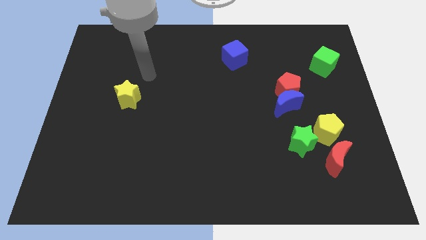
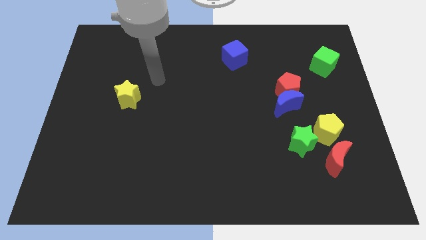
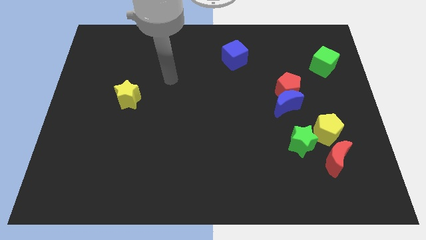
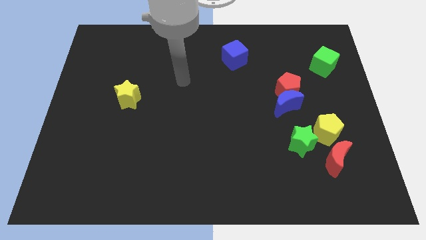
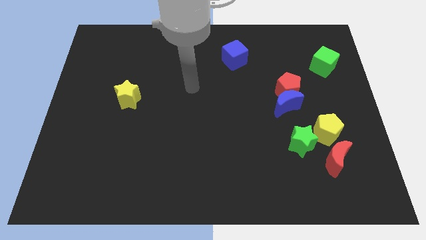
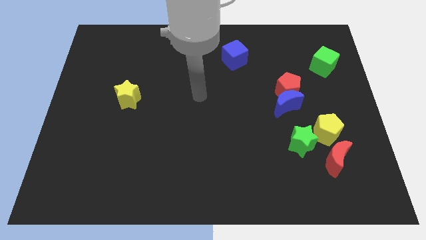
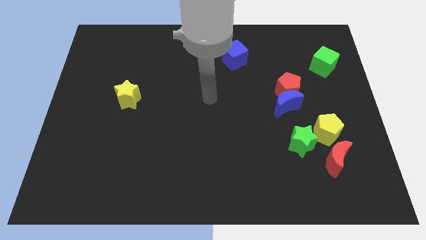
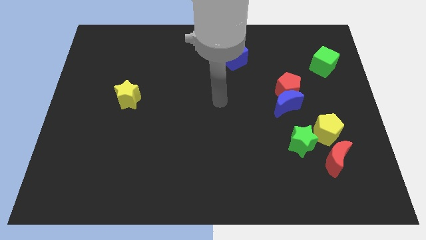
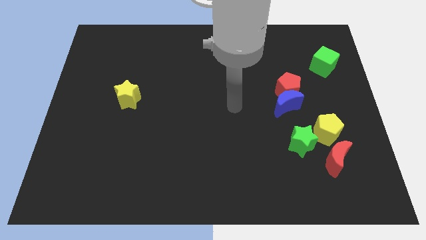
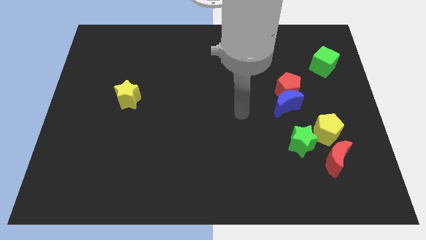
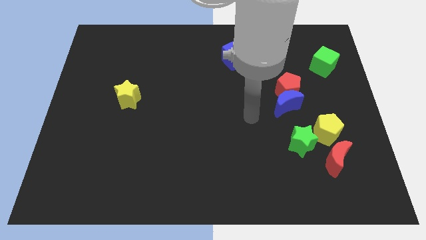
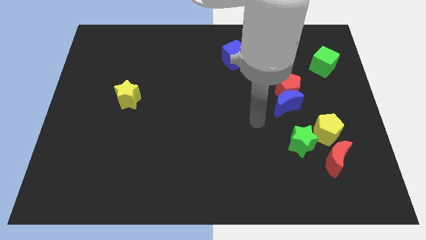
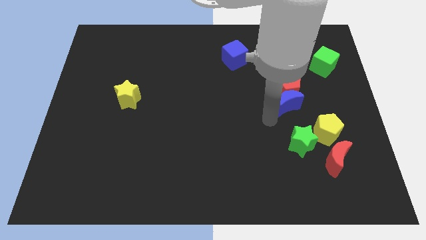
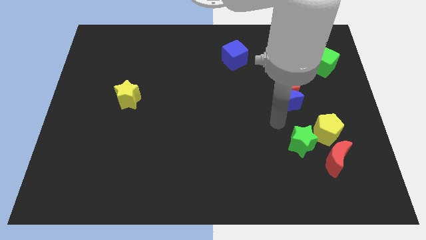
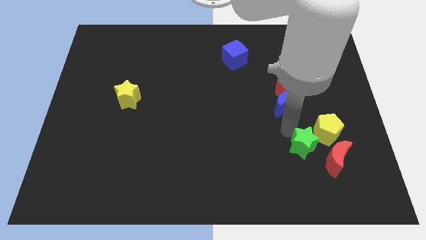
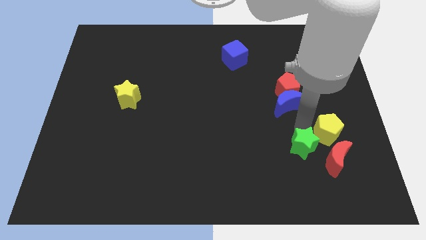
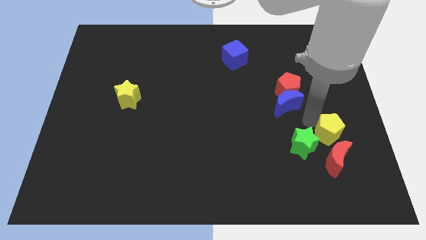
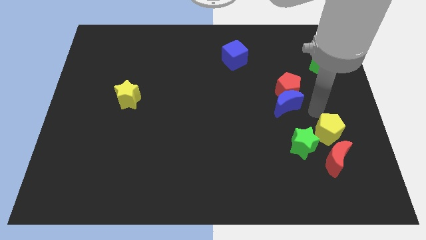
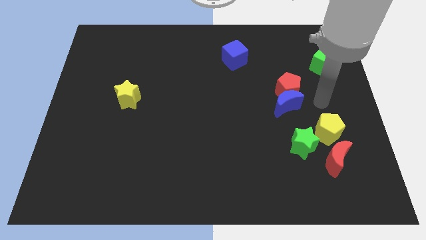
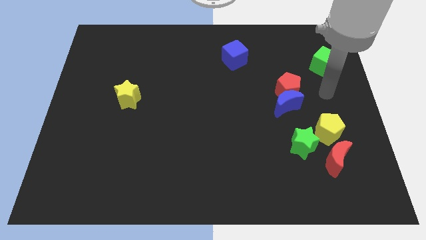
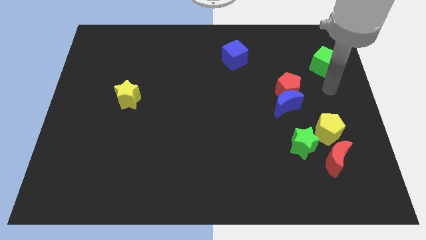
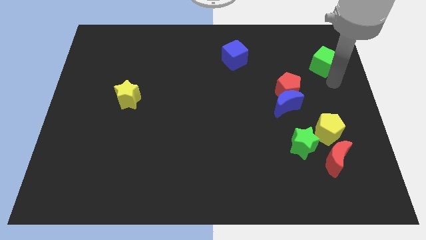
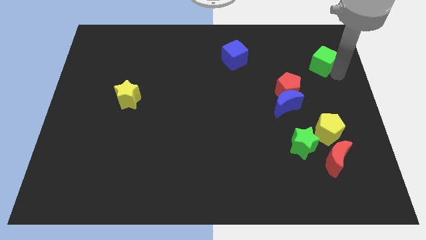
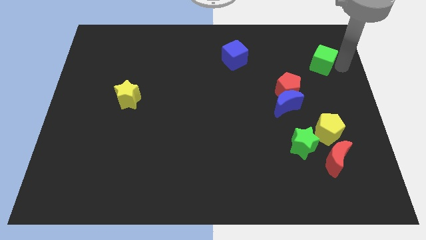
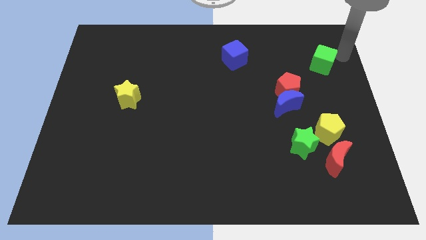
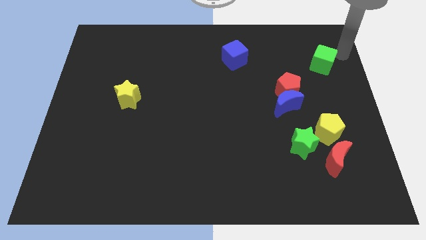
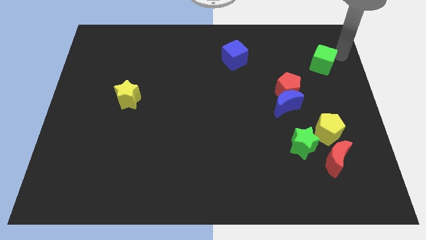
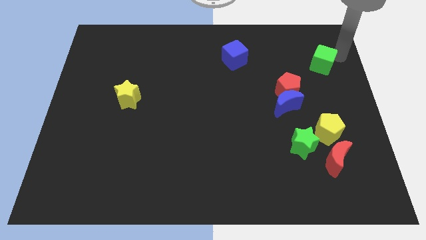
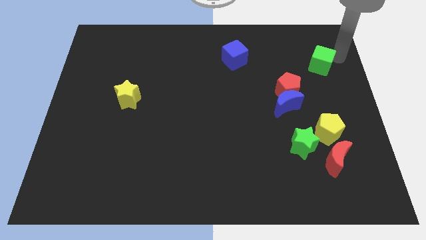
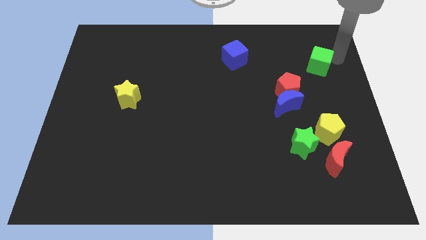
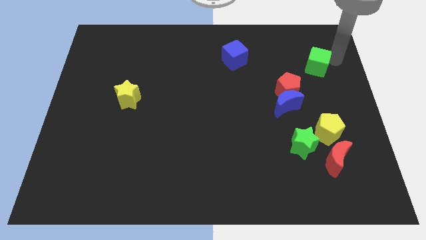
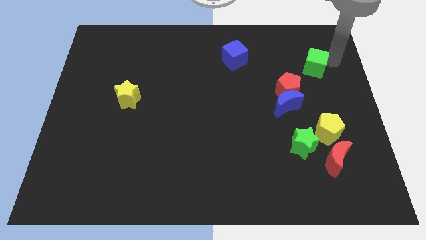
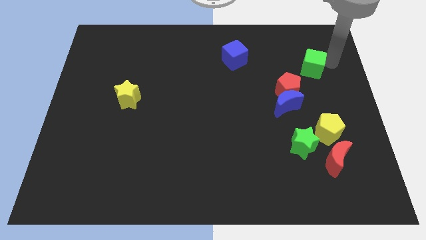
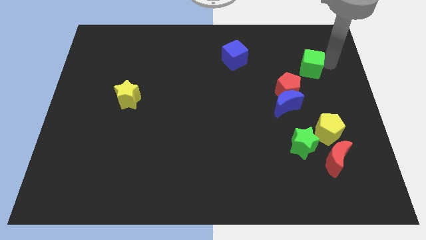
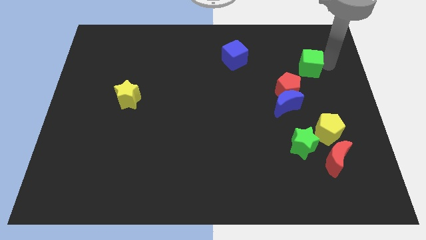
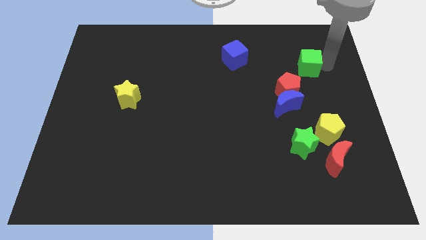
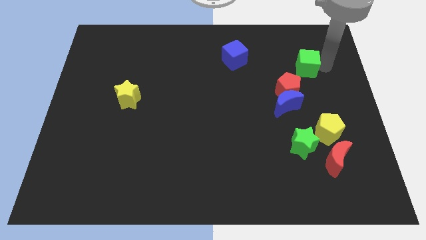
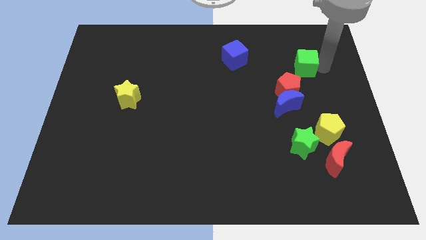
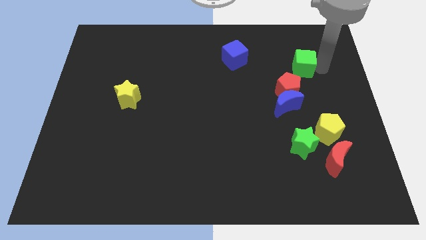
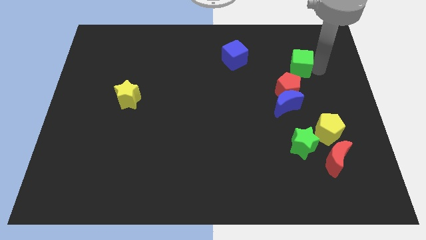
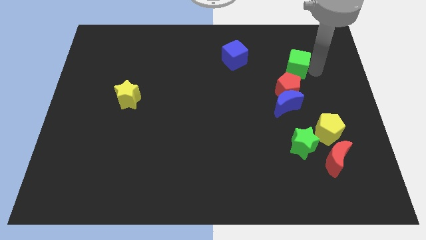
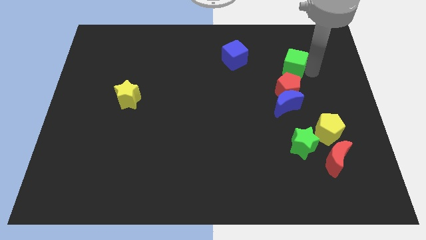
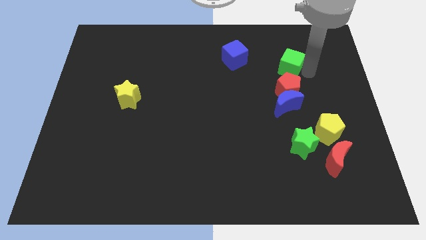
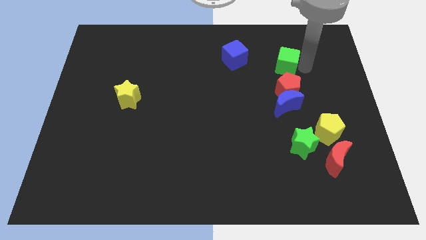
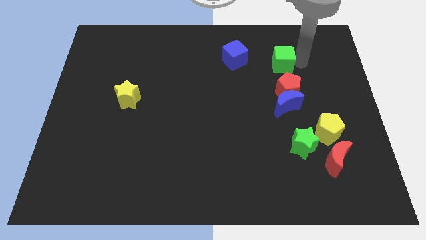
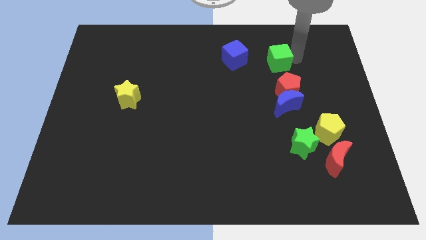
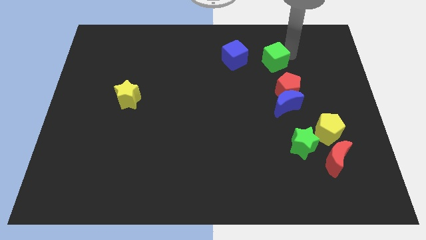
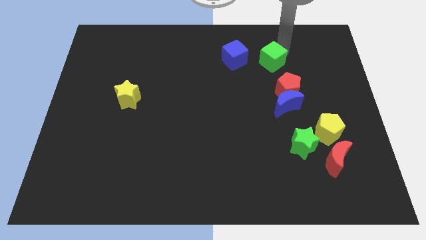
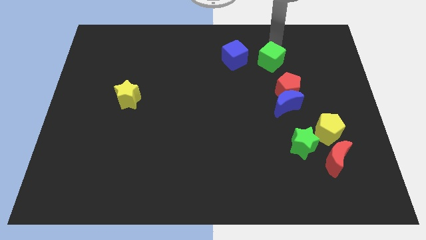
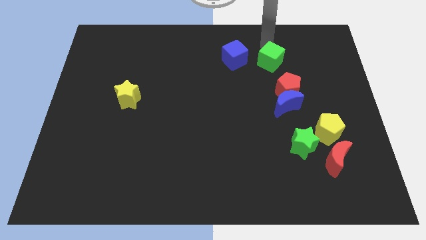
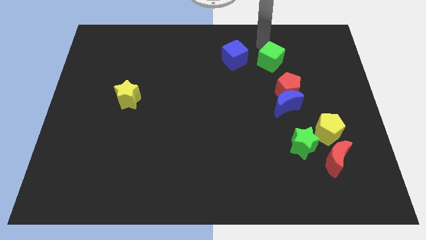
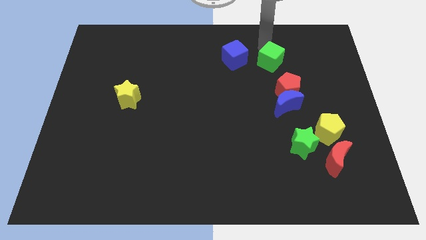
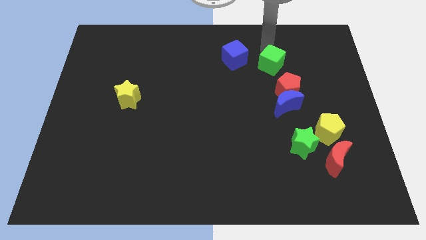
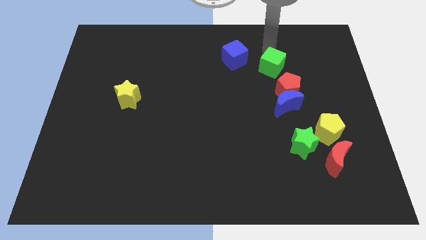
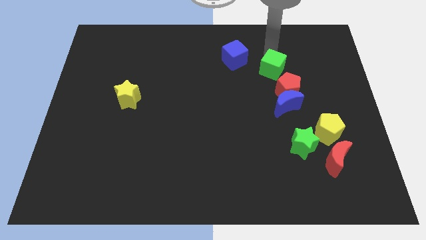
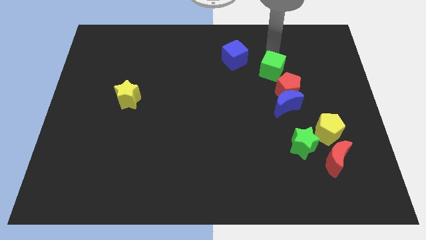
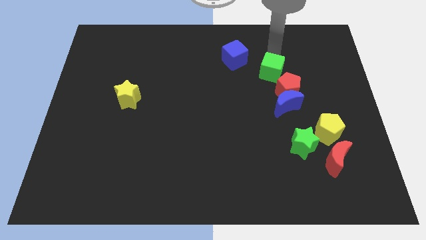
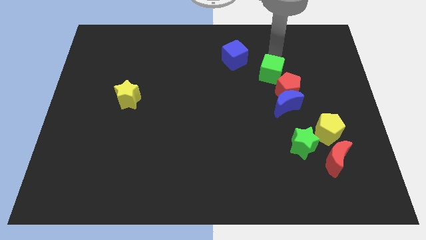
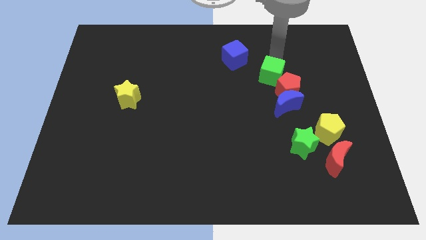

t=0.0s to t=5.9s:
push the green cube to the red pentagon

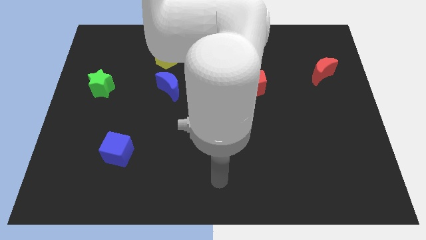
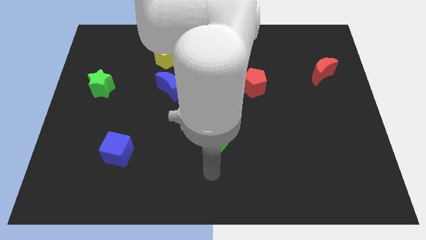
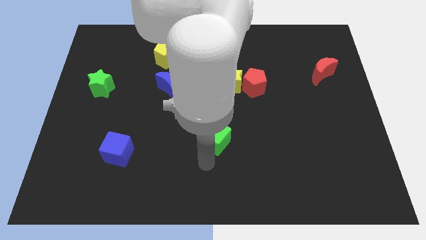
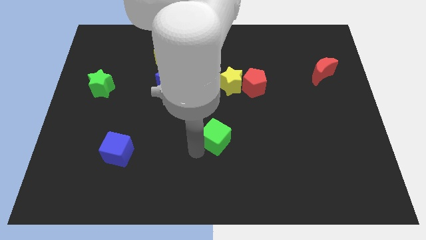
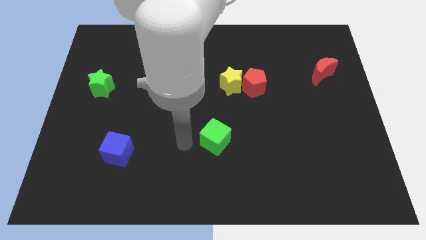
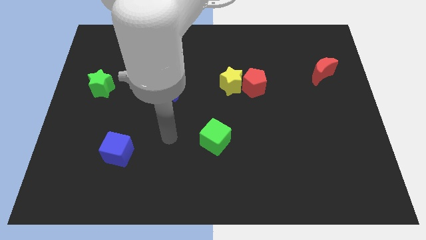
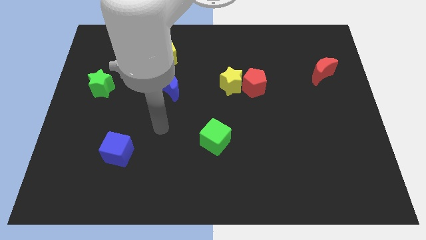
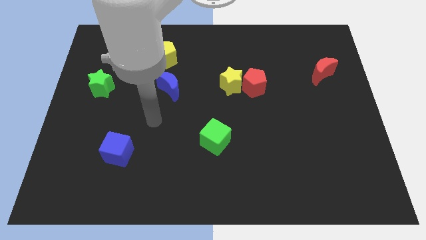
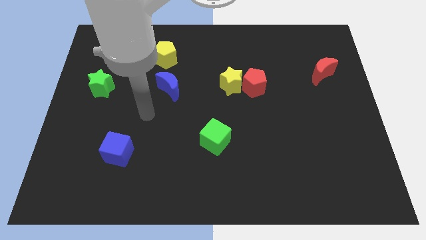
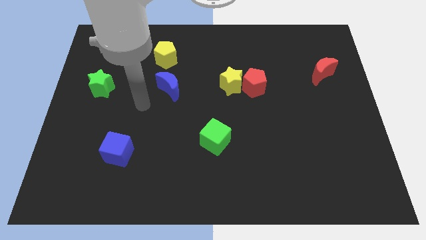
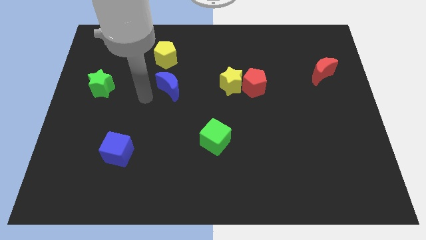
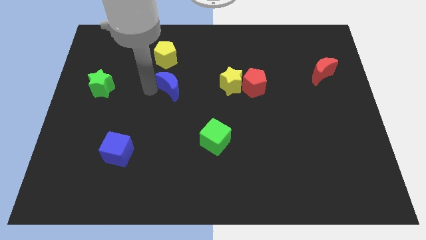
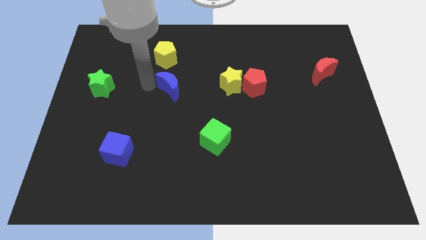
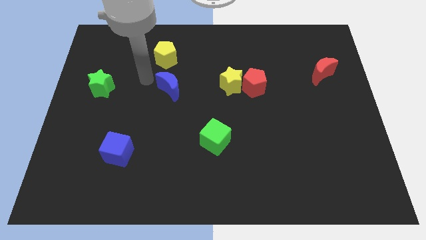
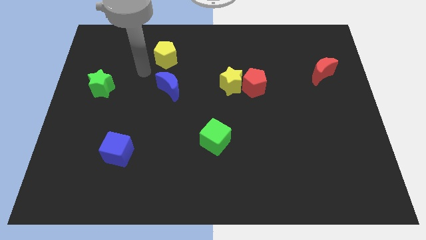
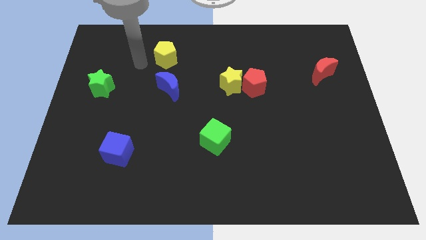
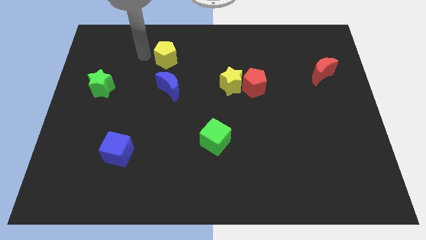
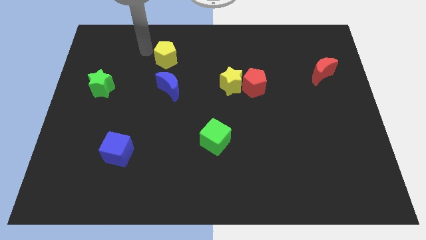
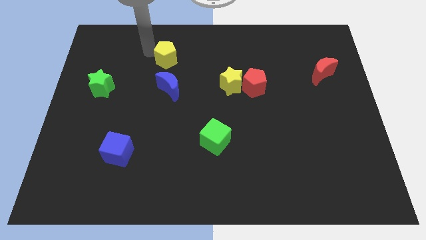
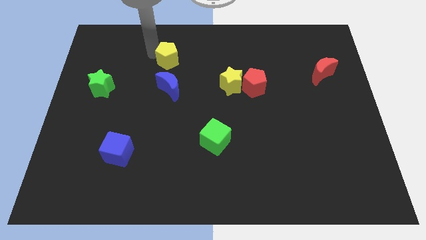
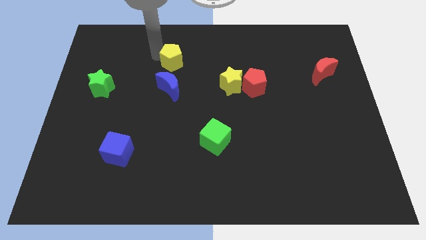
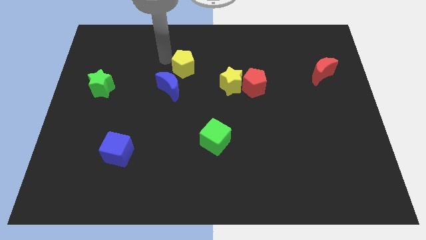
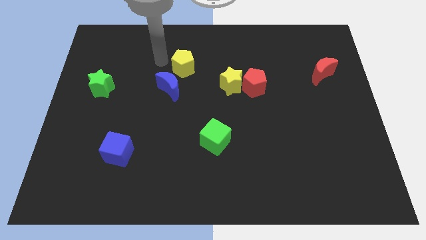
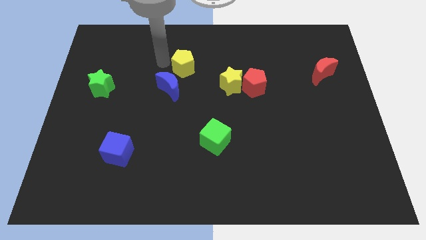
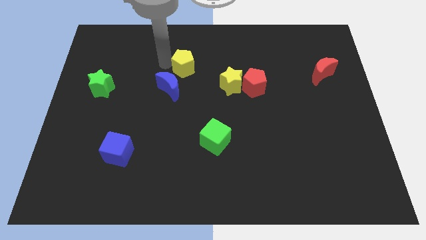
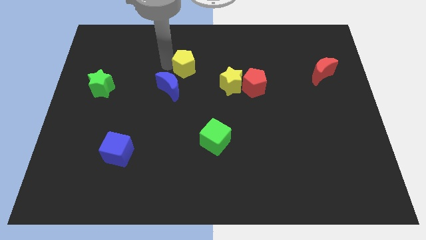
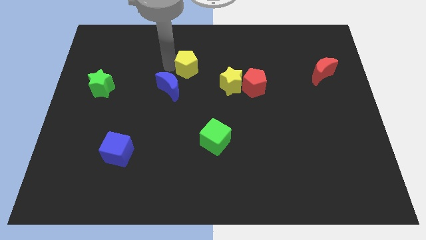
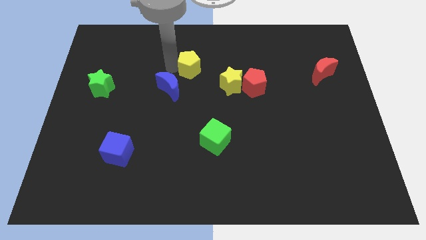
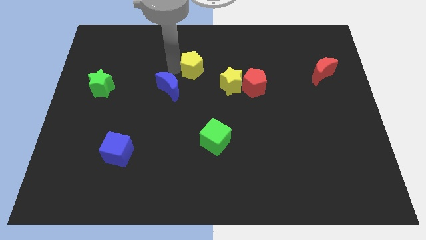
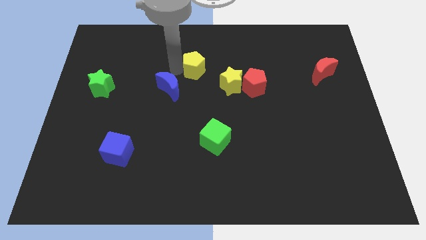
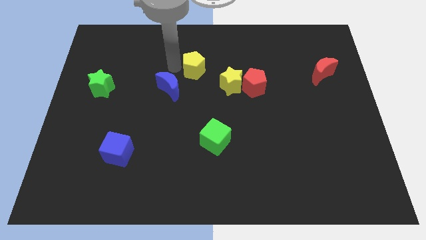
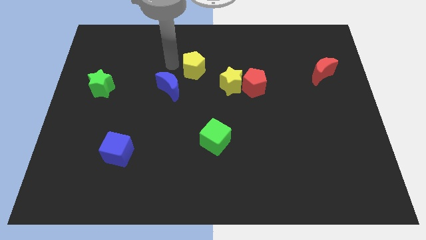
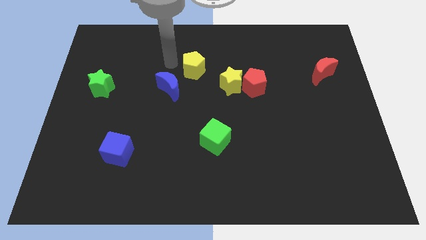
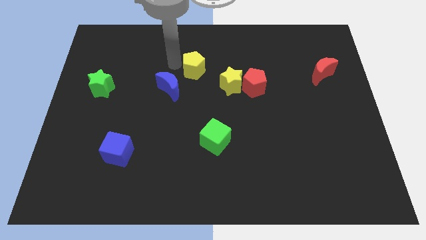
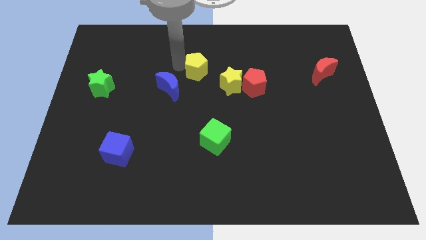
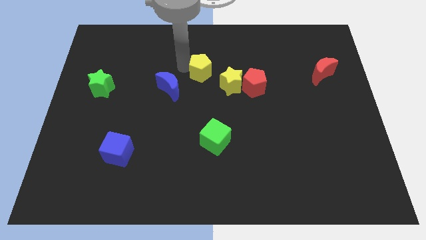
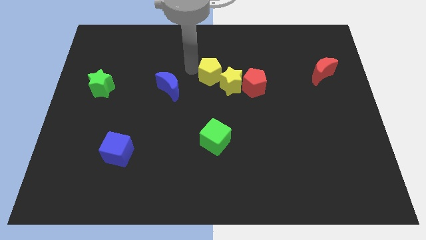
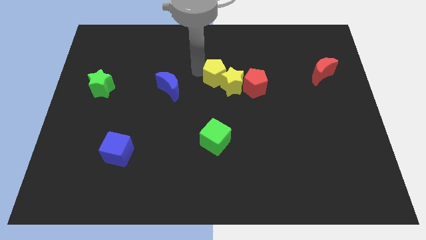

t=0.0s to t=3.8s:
slide the yellow pentagon next to the yellow star
